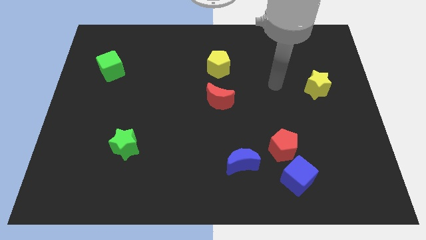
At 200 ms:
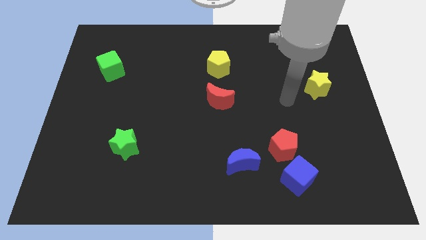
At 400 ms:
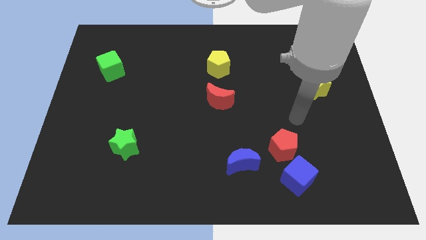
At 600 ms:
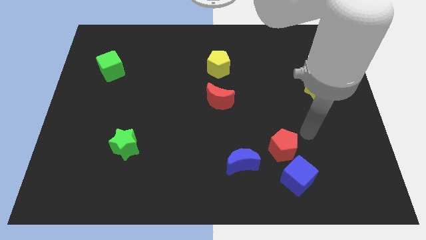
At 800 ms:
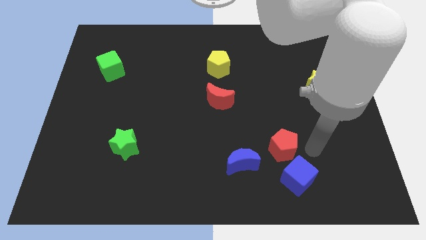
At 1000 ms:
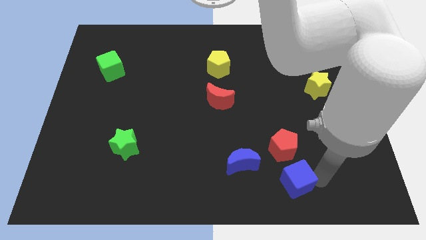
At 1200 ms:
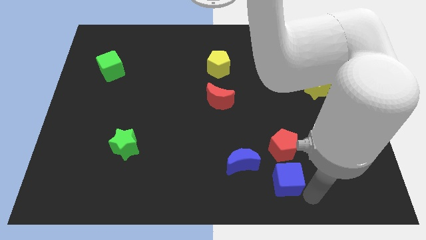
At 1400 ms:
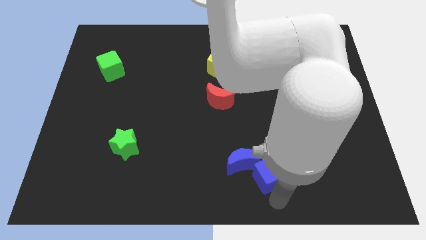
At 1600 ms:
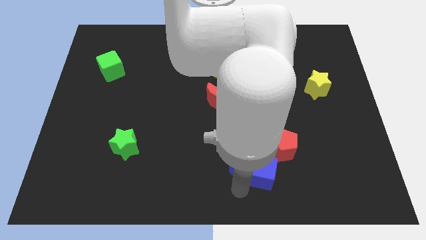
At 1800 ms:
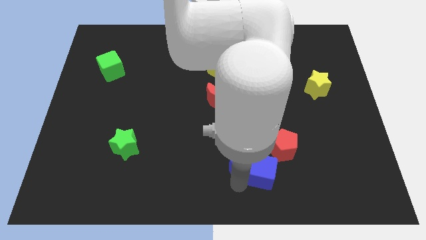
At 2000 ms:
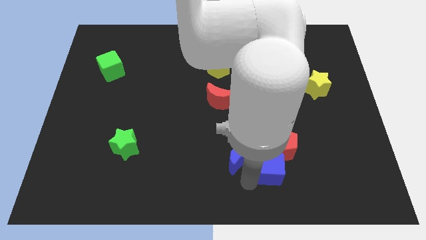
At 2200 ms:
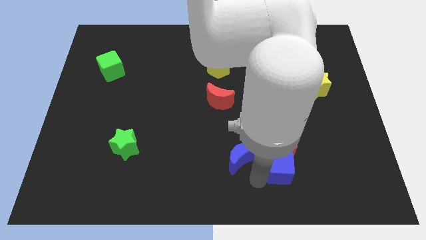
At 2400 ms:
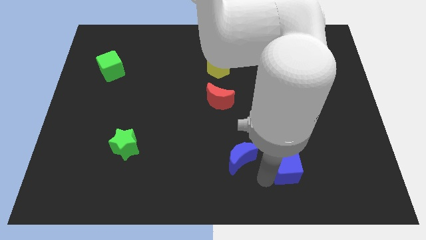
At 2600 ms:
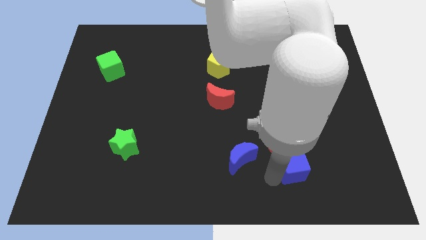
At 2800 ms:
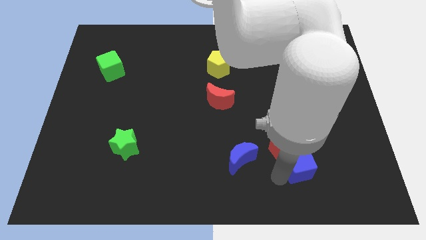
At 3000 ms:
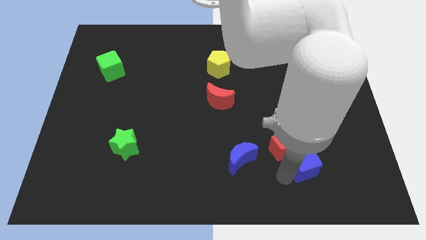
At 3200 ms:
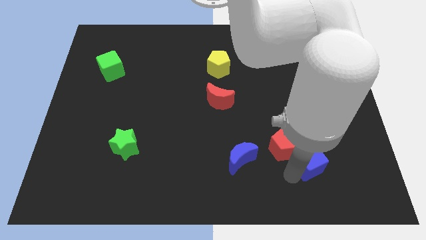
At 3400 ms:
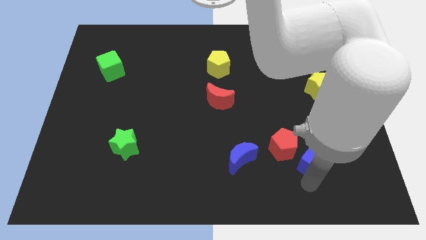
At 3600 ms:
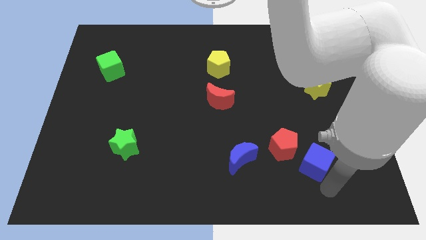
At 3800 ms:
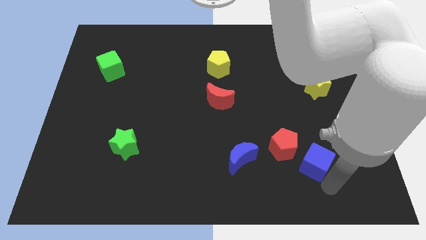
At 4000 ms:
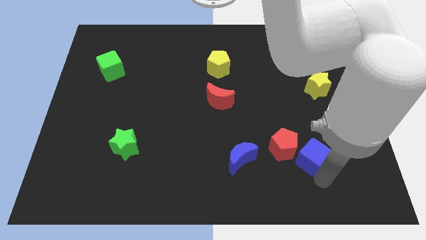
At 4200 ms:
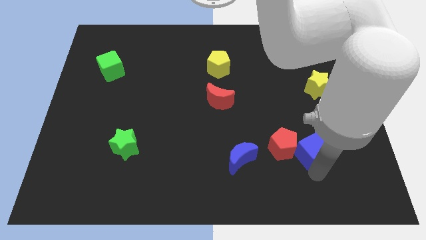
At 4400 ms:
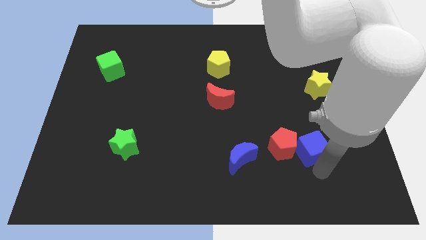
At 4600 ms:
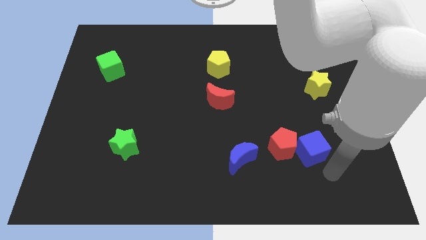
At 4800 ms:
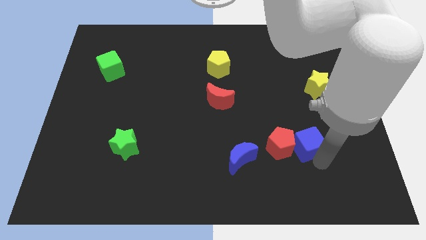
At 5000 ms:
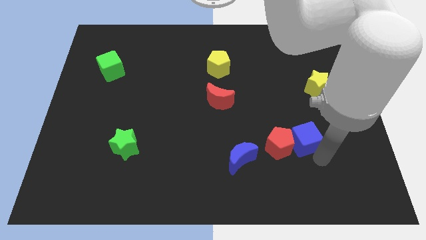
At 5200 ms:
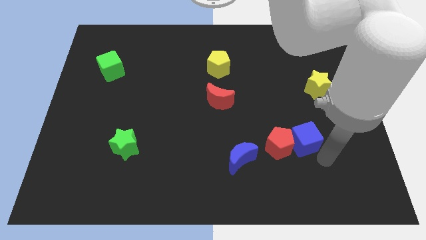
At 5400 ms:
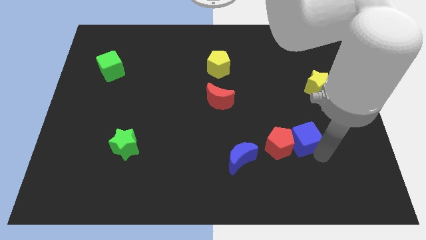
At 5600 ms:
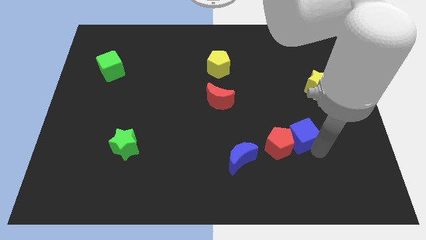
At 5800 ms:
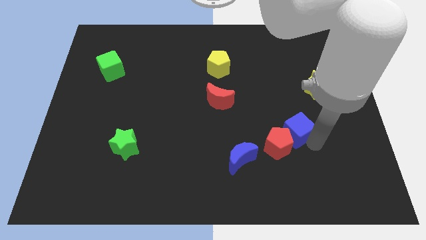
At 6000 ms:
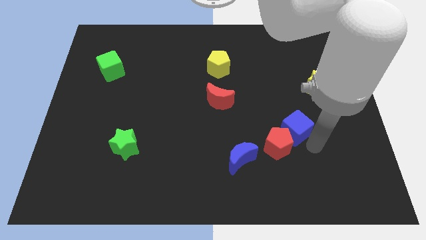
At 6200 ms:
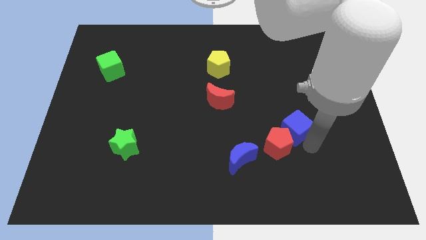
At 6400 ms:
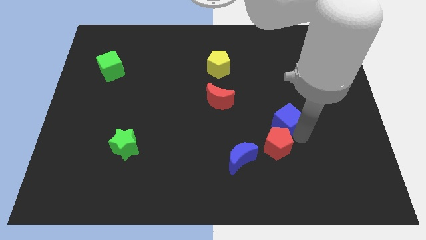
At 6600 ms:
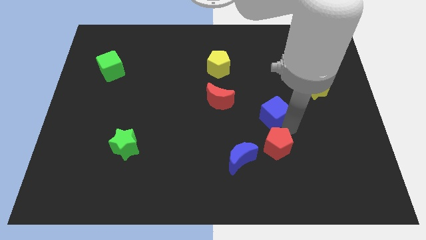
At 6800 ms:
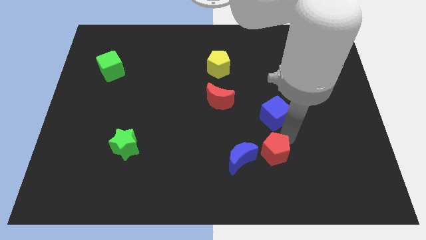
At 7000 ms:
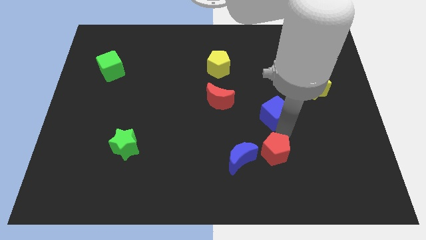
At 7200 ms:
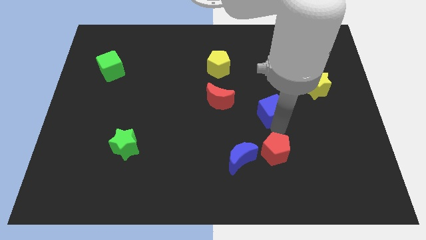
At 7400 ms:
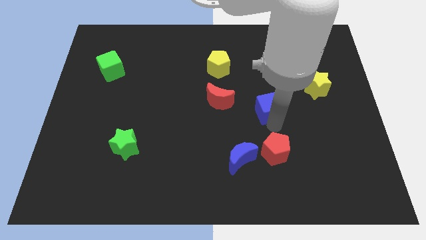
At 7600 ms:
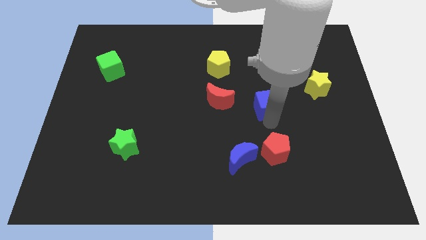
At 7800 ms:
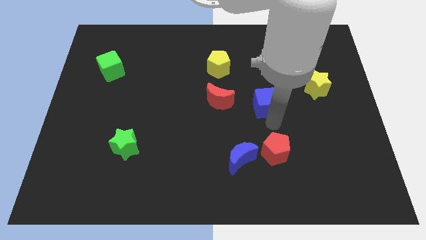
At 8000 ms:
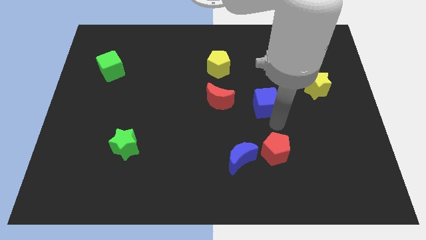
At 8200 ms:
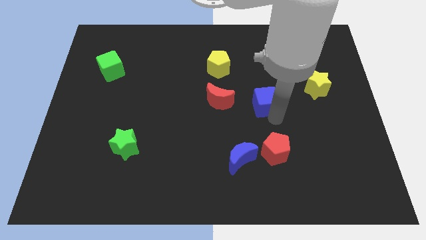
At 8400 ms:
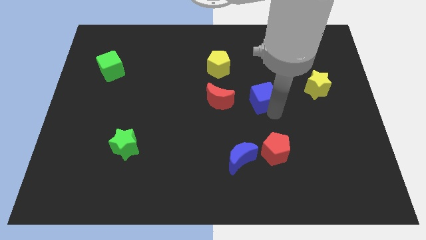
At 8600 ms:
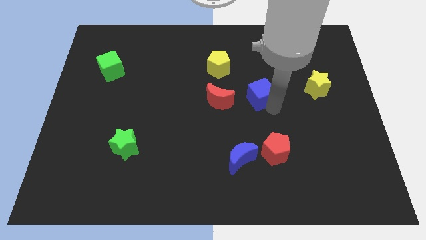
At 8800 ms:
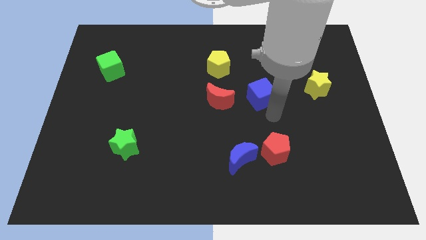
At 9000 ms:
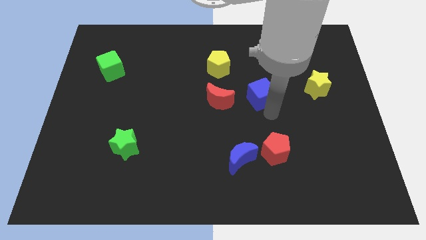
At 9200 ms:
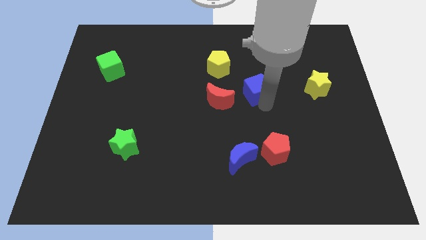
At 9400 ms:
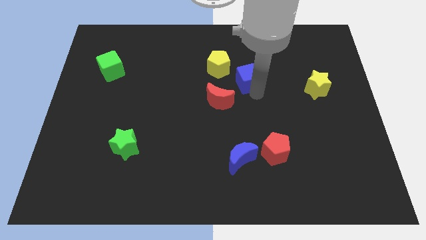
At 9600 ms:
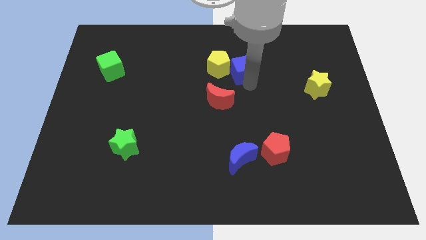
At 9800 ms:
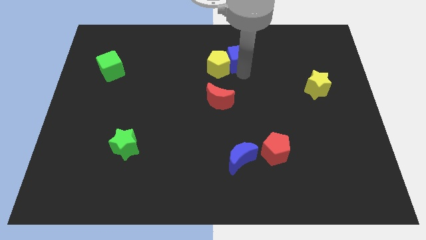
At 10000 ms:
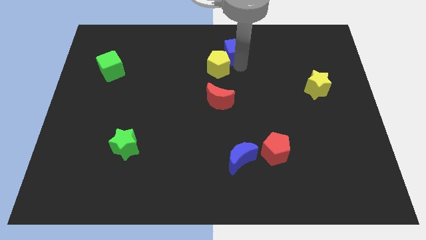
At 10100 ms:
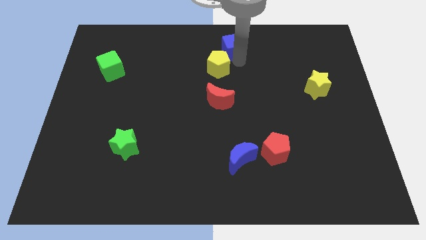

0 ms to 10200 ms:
slide the blue cube to the top side

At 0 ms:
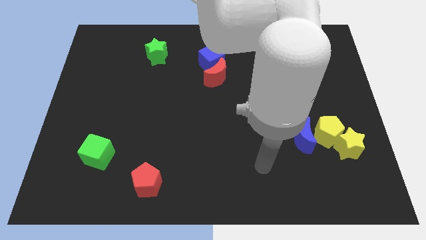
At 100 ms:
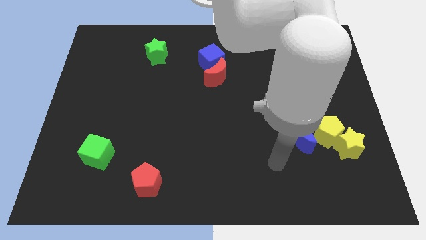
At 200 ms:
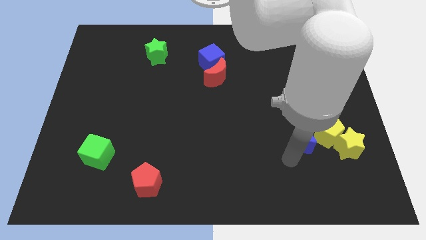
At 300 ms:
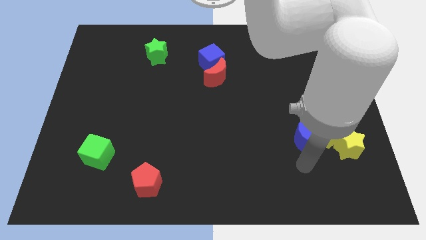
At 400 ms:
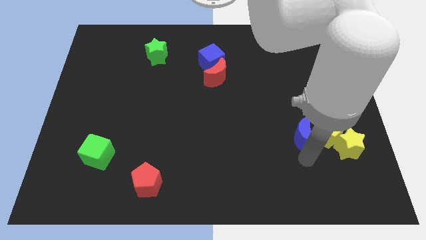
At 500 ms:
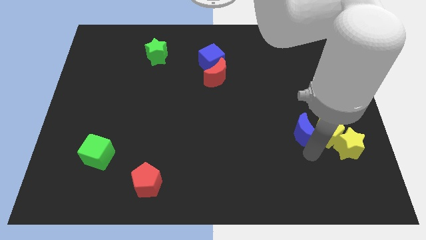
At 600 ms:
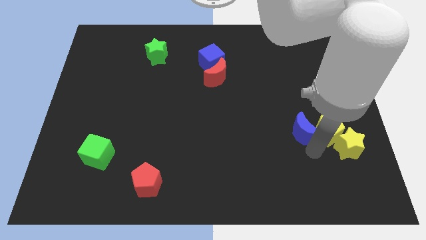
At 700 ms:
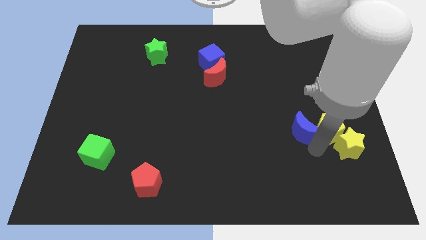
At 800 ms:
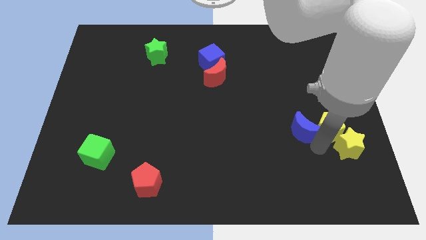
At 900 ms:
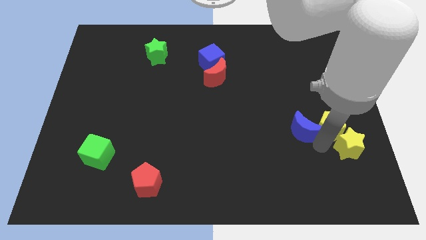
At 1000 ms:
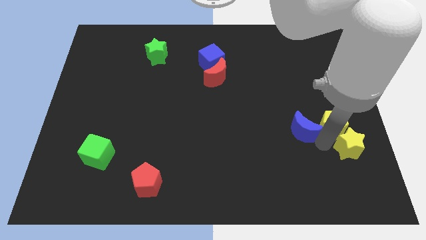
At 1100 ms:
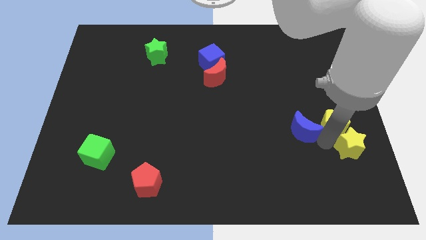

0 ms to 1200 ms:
push the yellow pentagon to the right side
